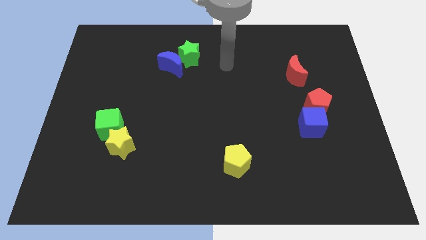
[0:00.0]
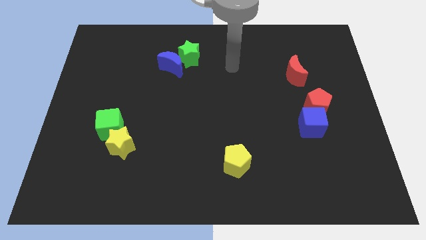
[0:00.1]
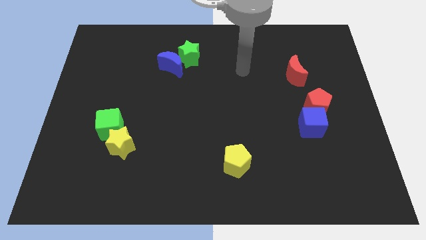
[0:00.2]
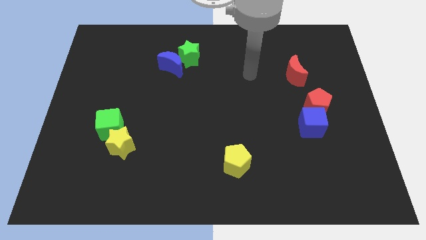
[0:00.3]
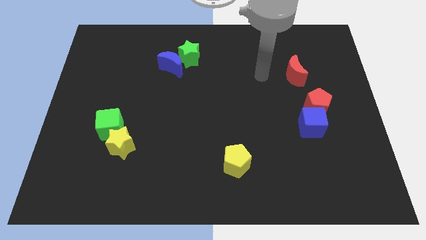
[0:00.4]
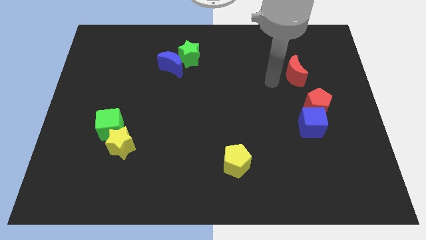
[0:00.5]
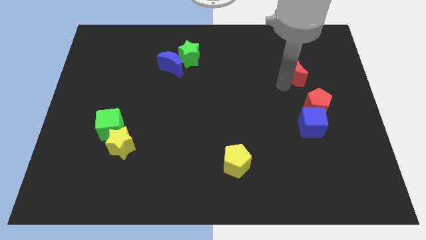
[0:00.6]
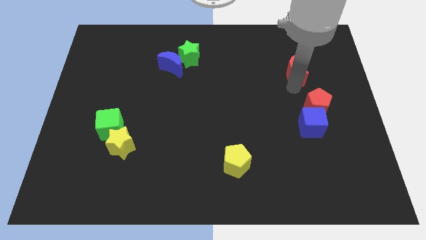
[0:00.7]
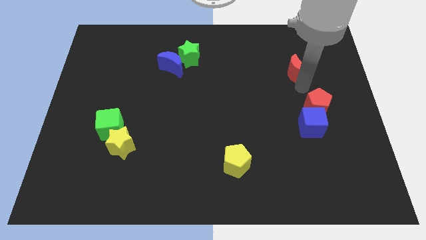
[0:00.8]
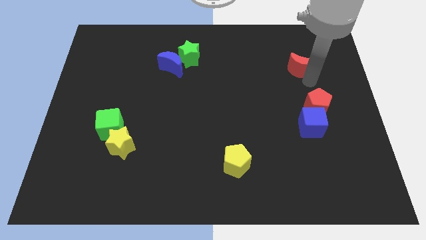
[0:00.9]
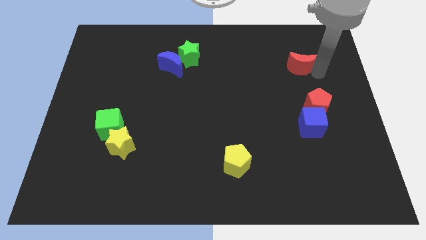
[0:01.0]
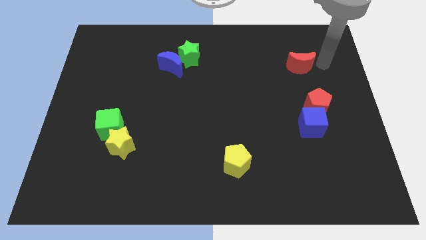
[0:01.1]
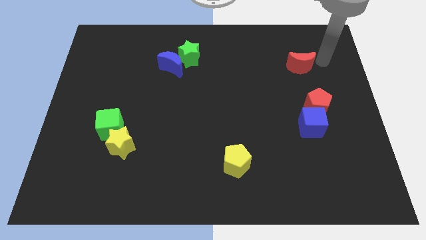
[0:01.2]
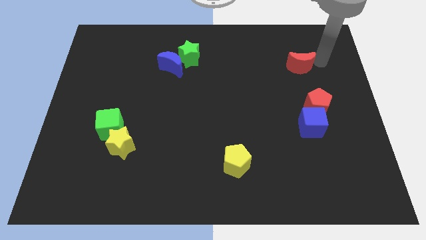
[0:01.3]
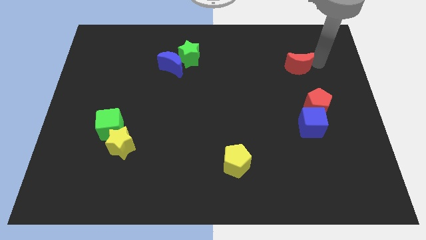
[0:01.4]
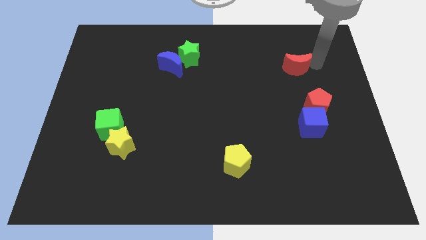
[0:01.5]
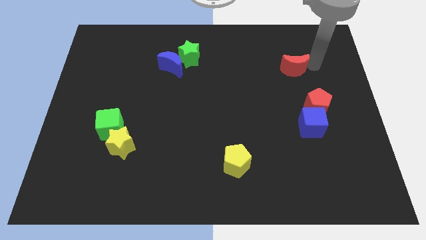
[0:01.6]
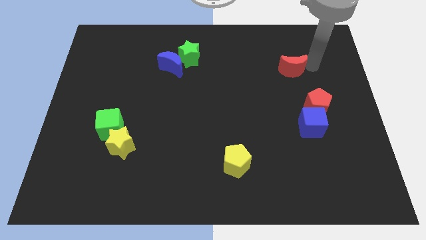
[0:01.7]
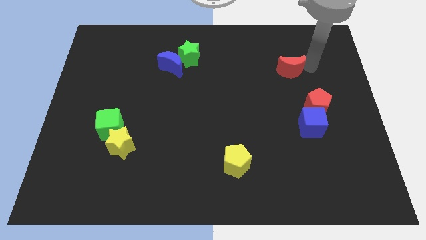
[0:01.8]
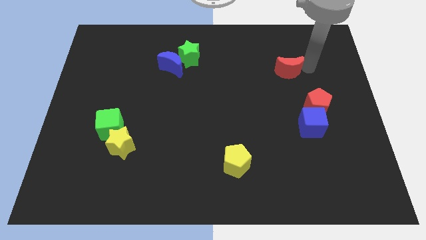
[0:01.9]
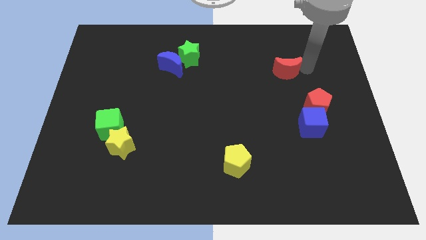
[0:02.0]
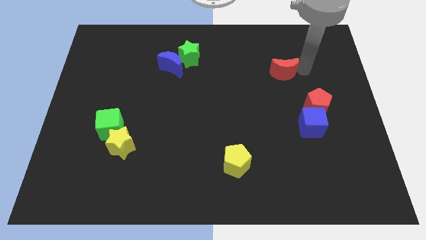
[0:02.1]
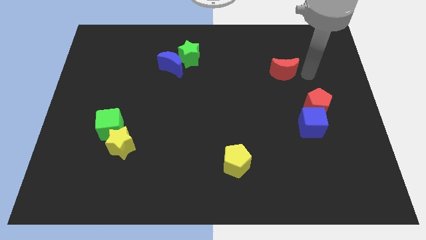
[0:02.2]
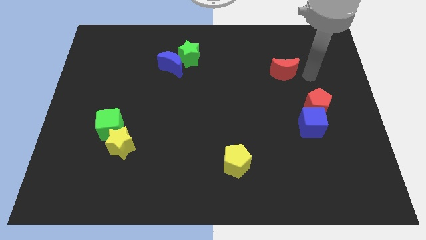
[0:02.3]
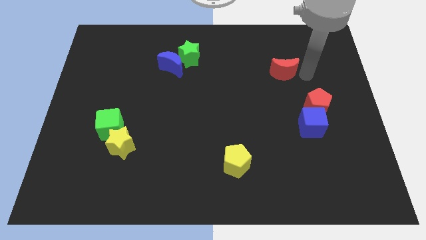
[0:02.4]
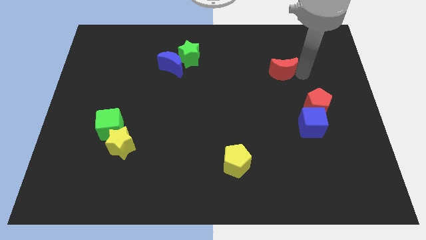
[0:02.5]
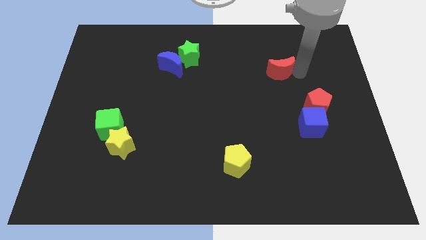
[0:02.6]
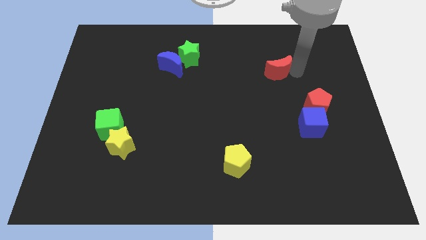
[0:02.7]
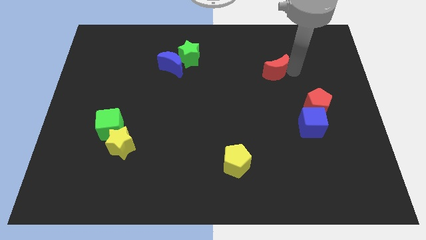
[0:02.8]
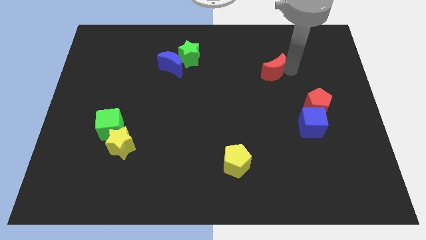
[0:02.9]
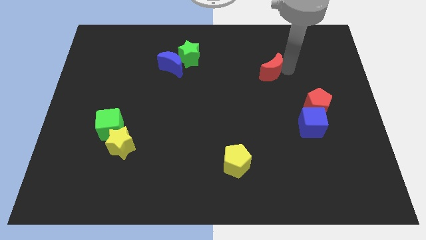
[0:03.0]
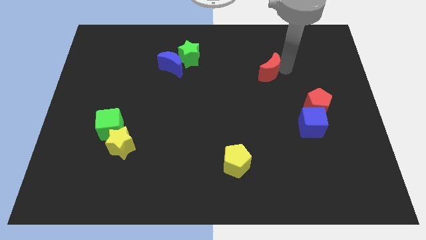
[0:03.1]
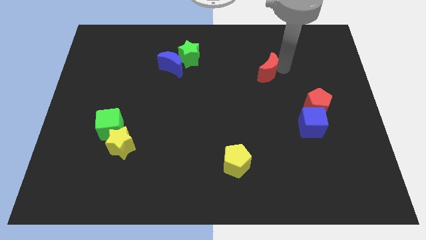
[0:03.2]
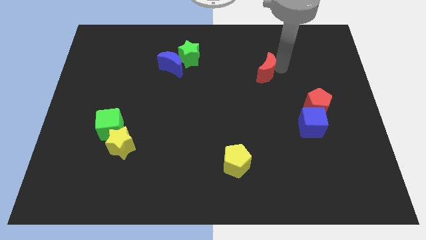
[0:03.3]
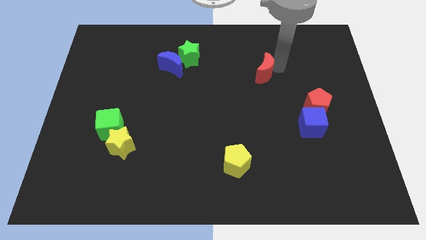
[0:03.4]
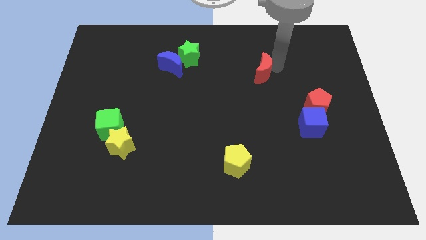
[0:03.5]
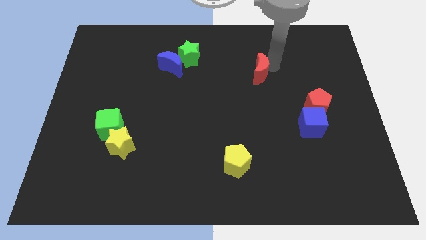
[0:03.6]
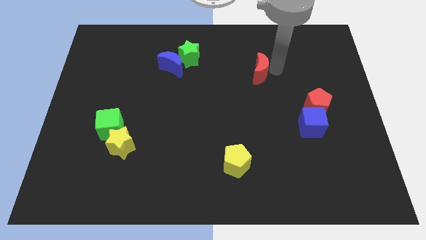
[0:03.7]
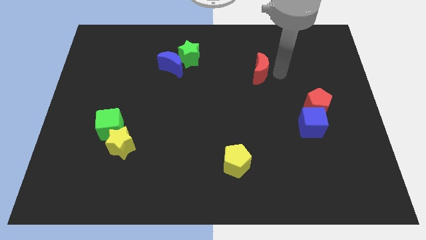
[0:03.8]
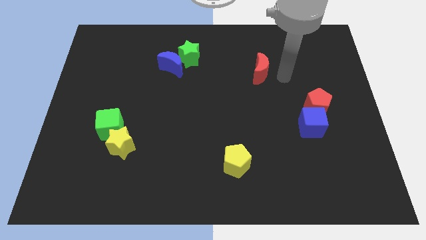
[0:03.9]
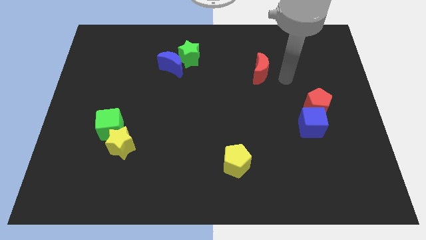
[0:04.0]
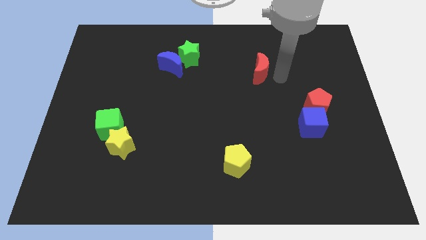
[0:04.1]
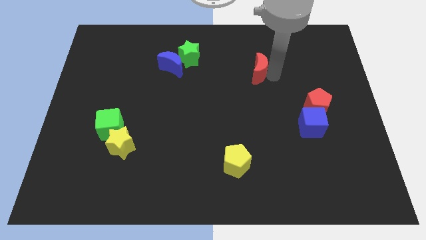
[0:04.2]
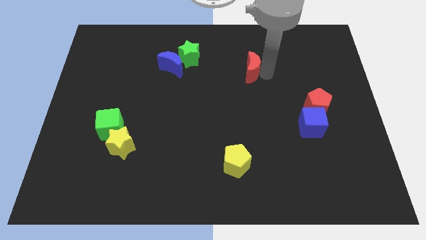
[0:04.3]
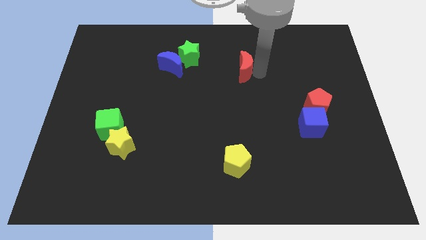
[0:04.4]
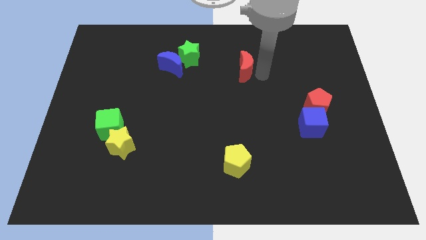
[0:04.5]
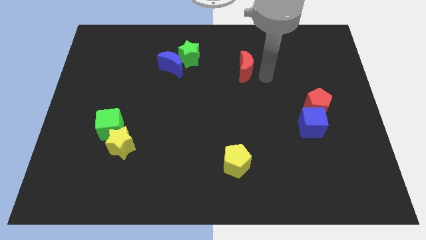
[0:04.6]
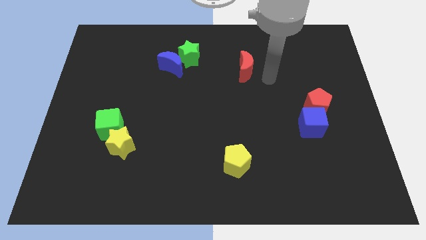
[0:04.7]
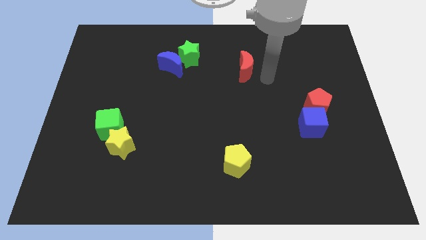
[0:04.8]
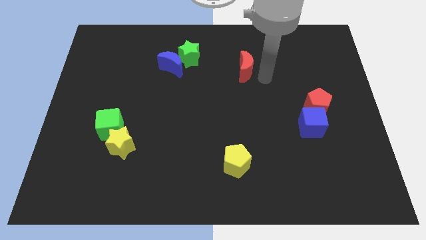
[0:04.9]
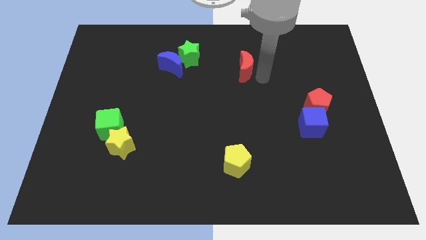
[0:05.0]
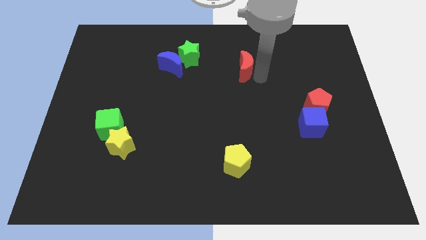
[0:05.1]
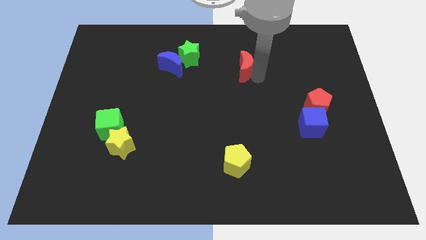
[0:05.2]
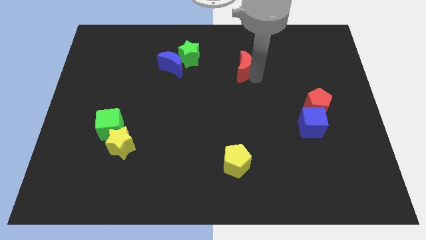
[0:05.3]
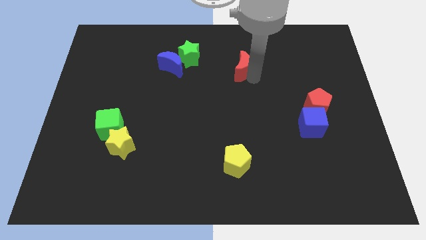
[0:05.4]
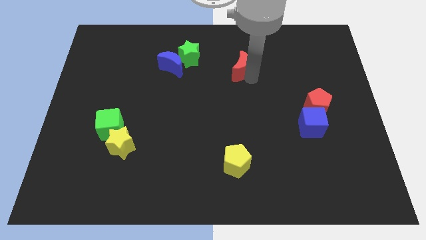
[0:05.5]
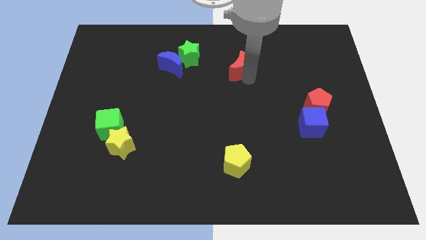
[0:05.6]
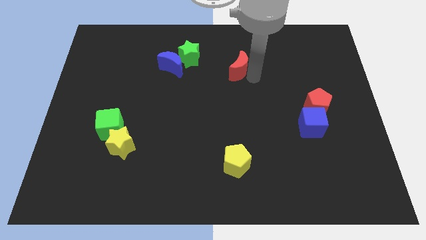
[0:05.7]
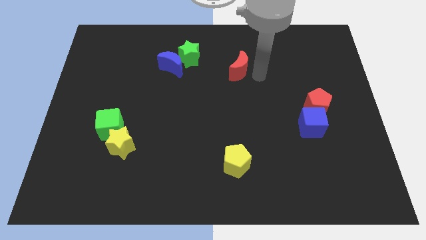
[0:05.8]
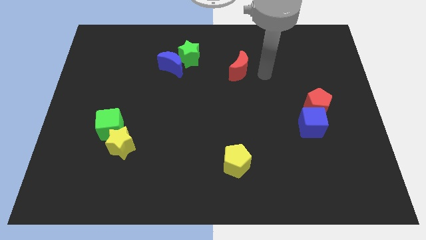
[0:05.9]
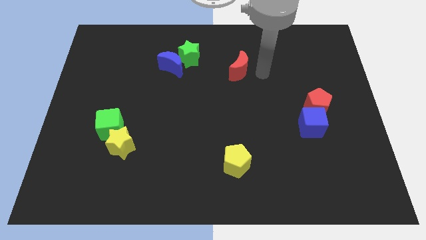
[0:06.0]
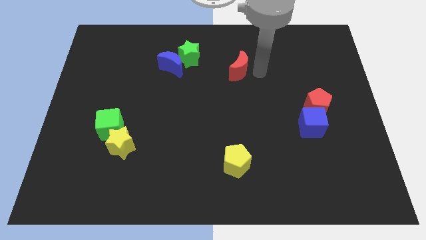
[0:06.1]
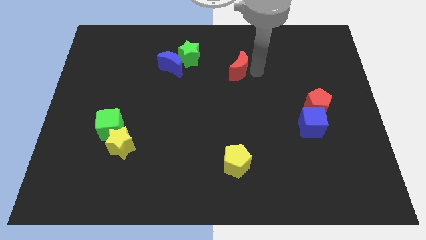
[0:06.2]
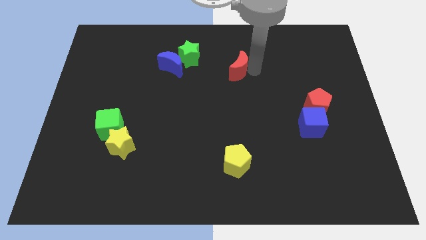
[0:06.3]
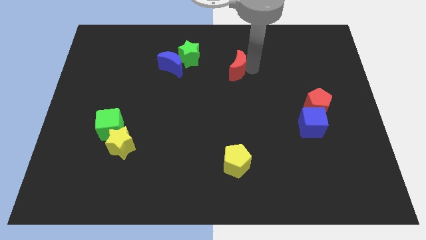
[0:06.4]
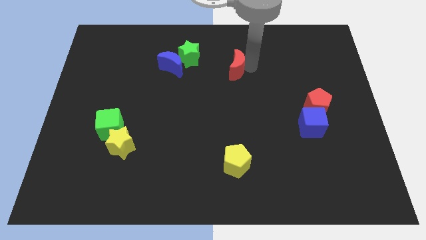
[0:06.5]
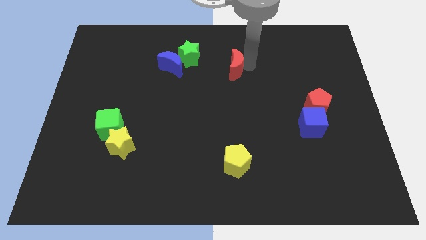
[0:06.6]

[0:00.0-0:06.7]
slide the red moon to the right side of the blue moon

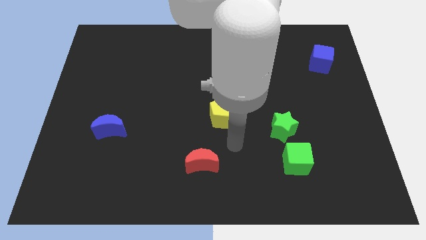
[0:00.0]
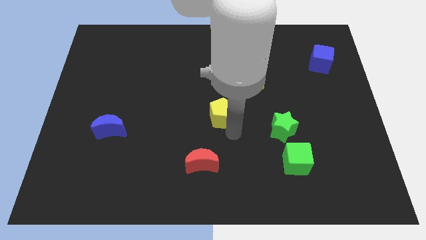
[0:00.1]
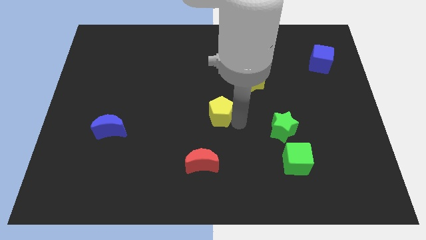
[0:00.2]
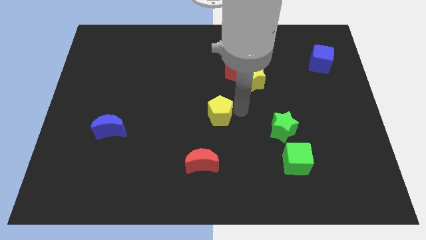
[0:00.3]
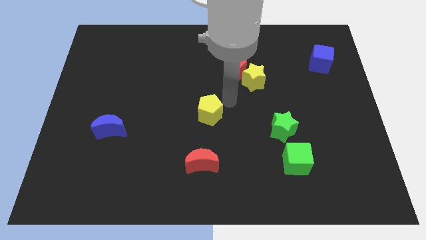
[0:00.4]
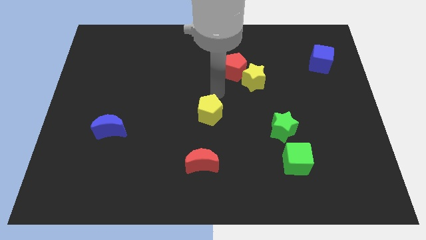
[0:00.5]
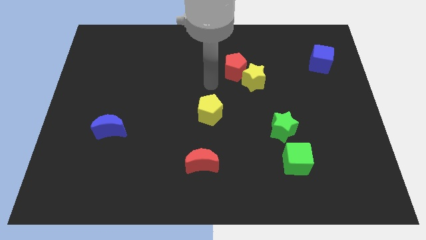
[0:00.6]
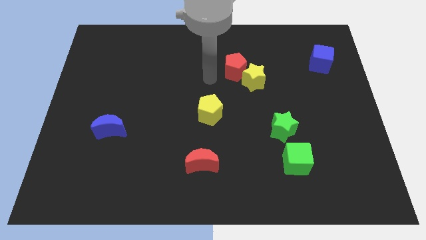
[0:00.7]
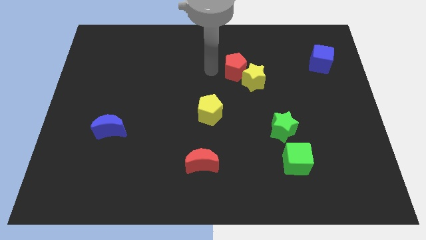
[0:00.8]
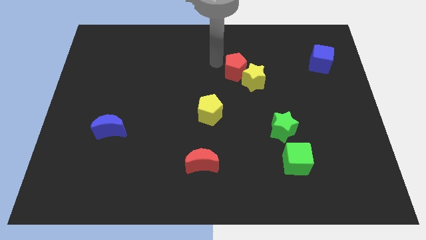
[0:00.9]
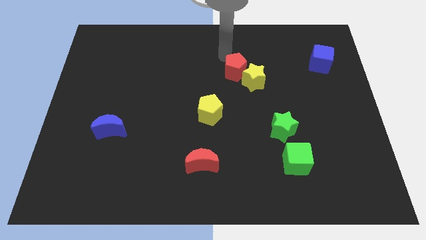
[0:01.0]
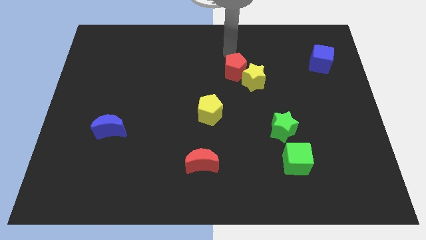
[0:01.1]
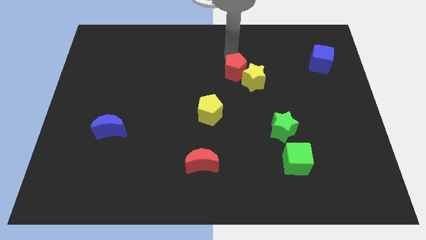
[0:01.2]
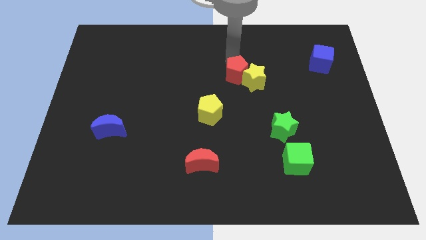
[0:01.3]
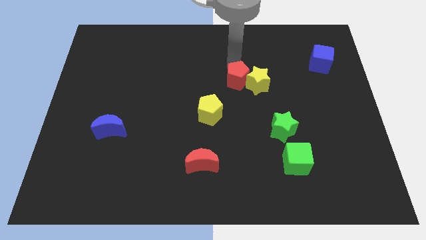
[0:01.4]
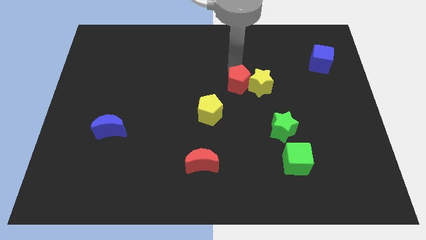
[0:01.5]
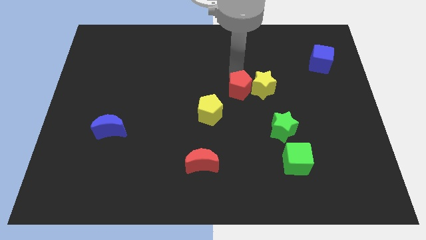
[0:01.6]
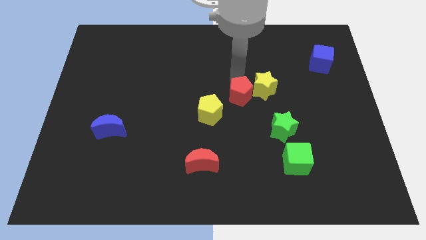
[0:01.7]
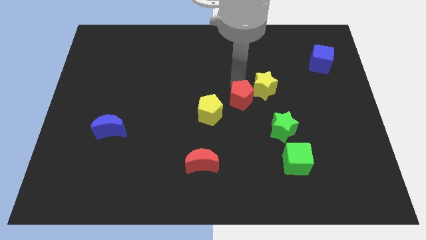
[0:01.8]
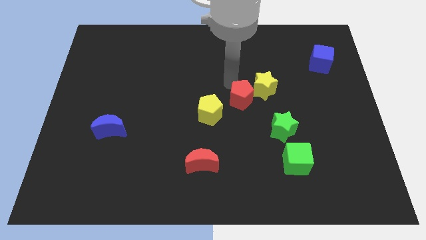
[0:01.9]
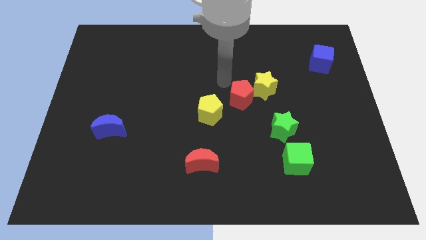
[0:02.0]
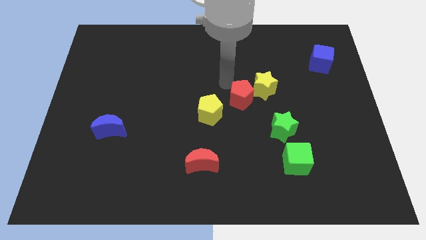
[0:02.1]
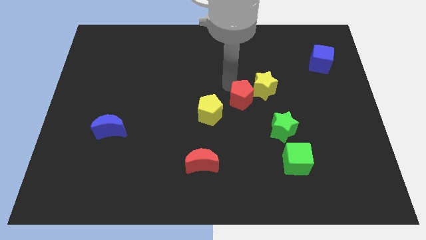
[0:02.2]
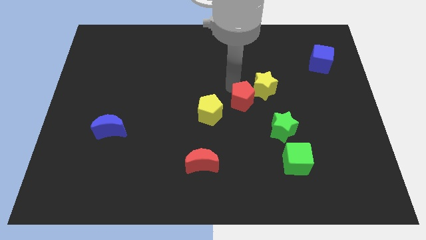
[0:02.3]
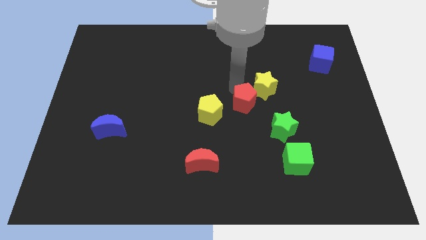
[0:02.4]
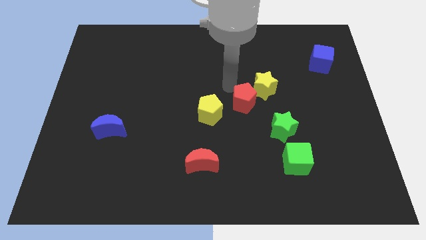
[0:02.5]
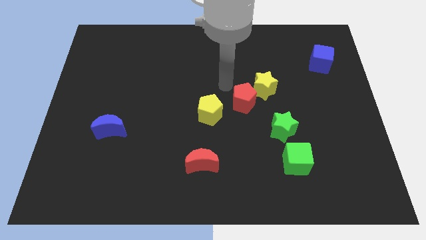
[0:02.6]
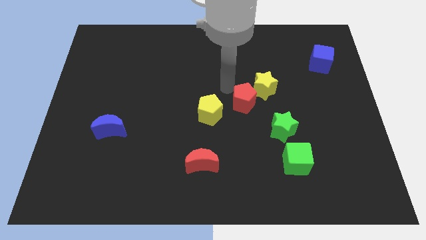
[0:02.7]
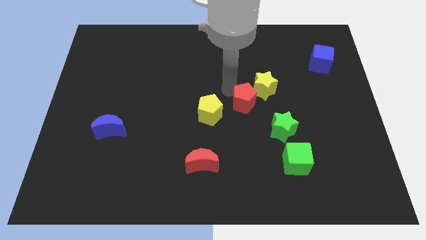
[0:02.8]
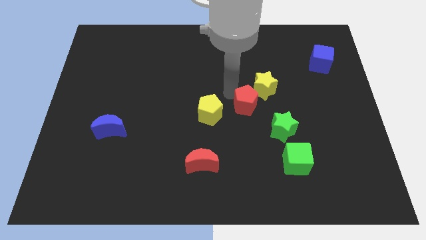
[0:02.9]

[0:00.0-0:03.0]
move the red pentagon to the bottom side of the yellow star
